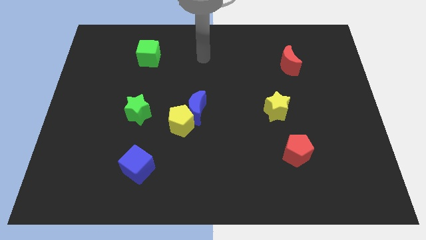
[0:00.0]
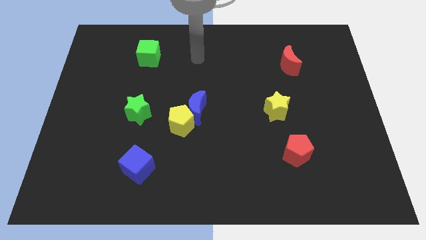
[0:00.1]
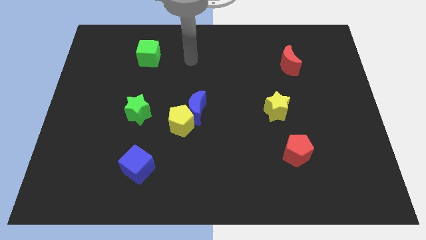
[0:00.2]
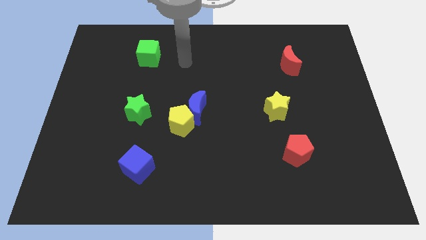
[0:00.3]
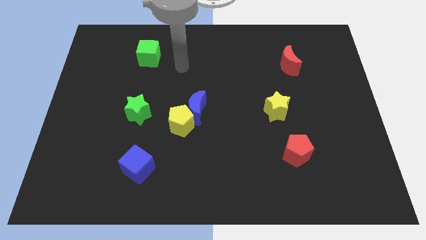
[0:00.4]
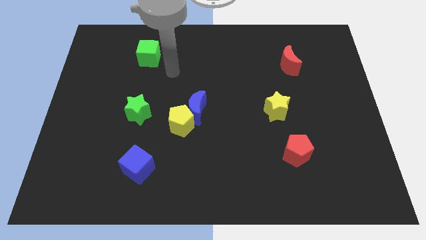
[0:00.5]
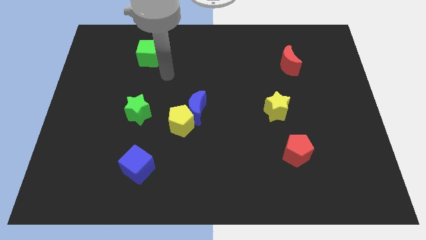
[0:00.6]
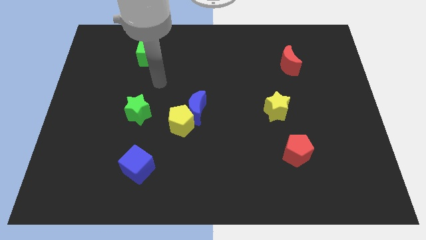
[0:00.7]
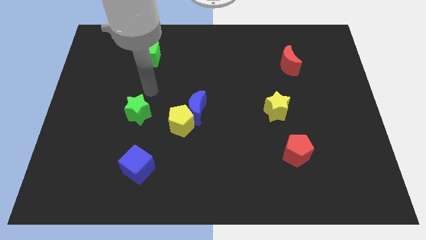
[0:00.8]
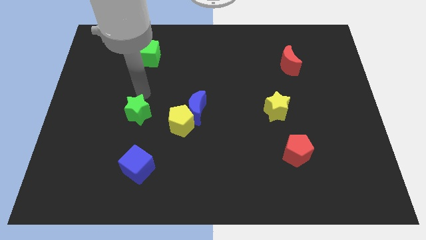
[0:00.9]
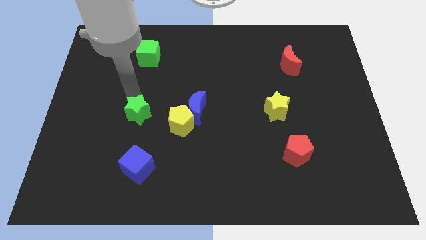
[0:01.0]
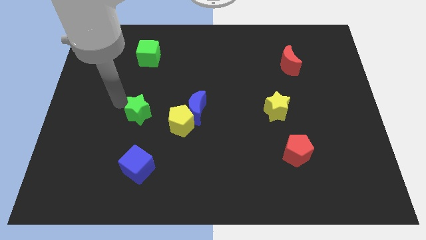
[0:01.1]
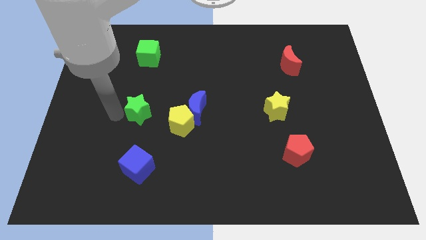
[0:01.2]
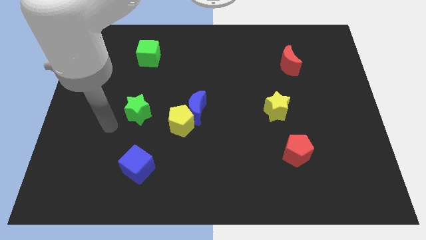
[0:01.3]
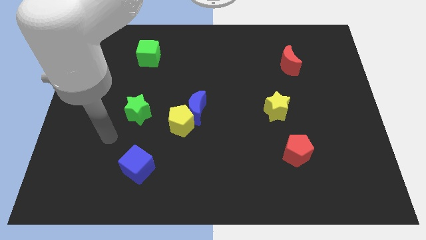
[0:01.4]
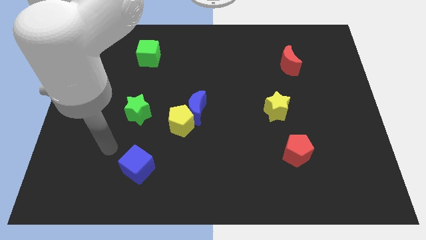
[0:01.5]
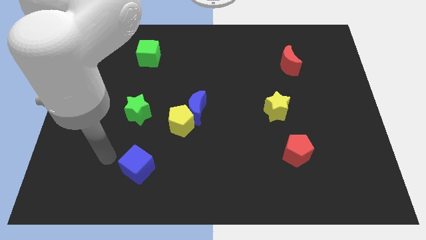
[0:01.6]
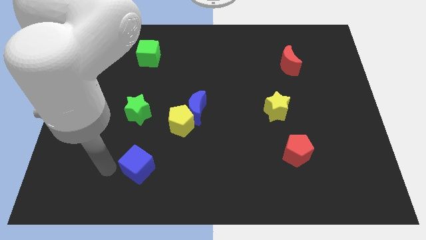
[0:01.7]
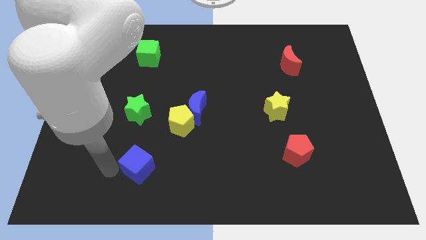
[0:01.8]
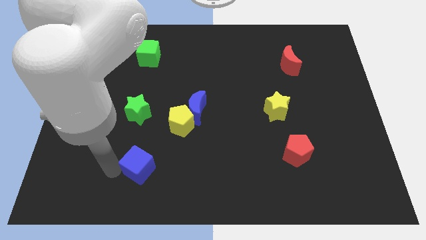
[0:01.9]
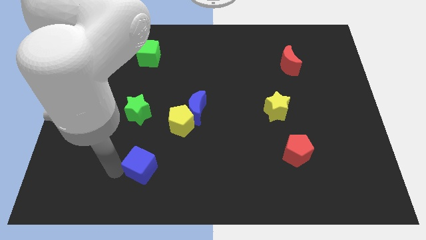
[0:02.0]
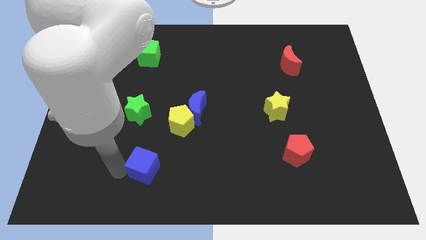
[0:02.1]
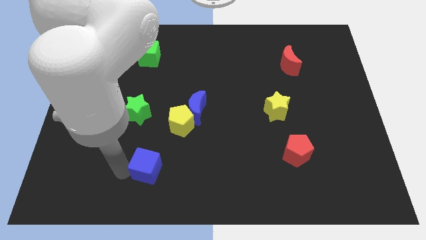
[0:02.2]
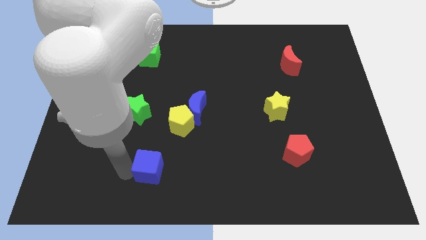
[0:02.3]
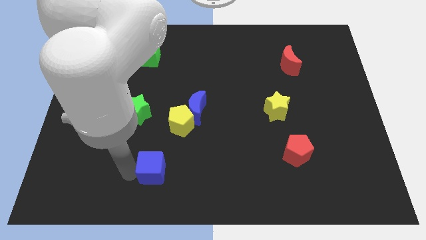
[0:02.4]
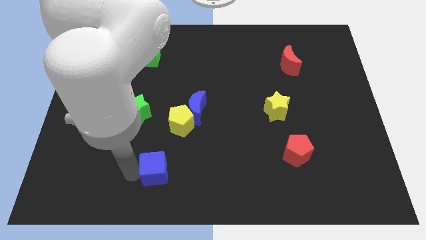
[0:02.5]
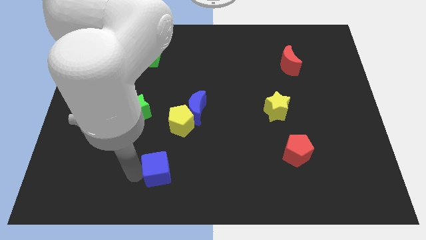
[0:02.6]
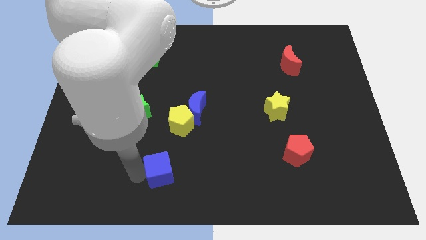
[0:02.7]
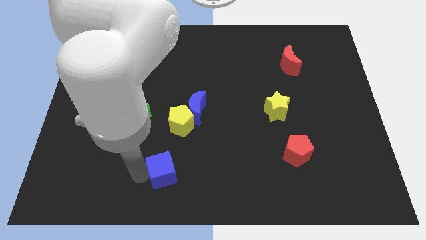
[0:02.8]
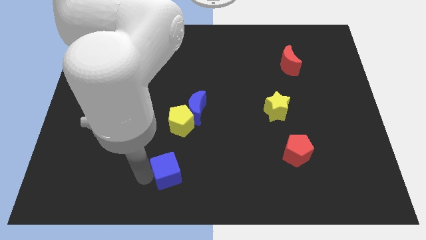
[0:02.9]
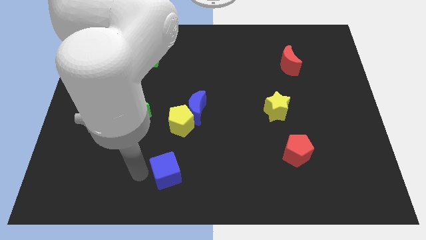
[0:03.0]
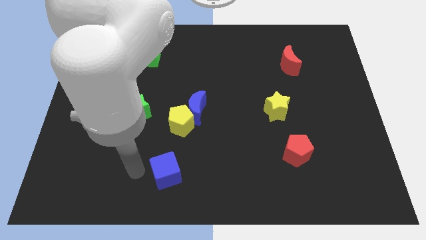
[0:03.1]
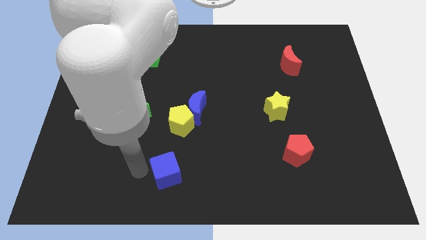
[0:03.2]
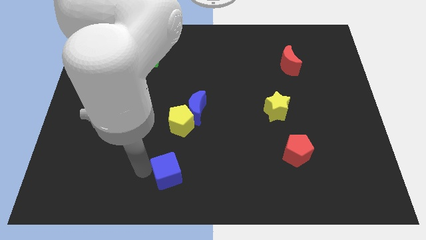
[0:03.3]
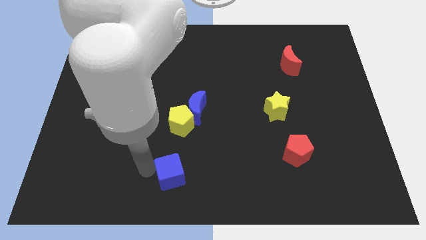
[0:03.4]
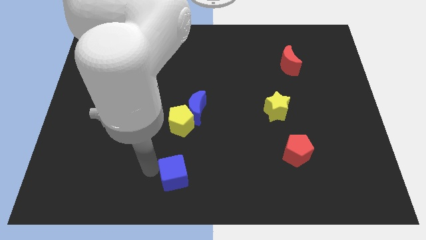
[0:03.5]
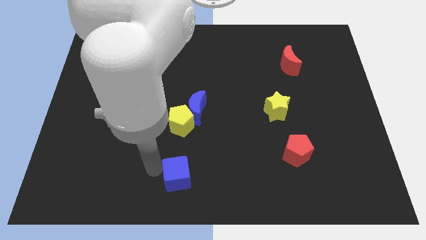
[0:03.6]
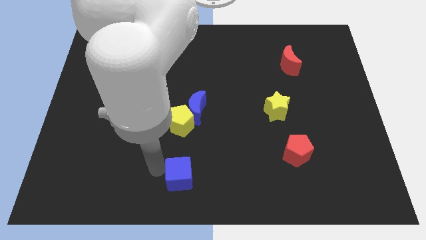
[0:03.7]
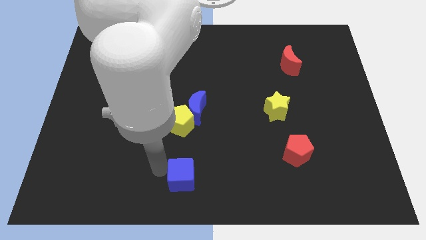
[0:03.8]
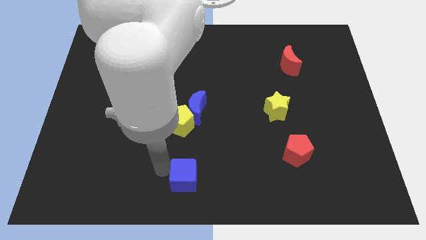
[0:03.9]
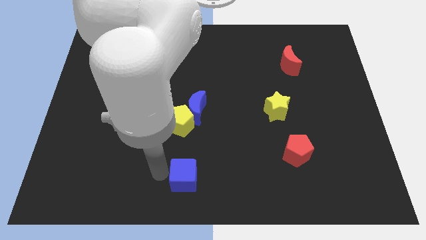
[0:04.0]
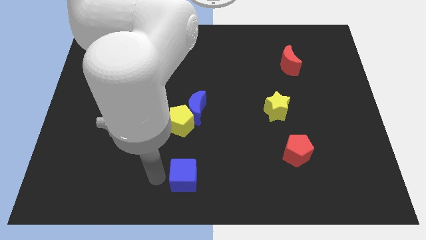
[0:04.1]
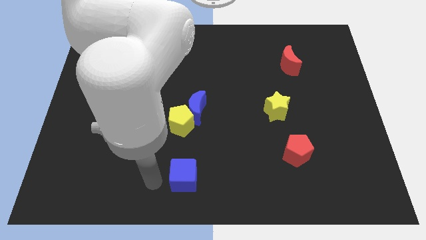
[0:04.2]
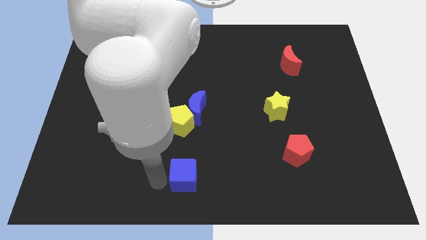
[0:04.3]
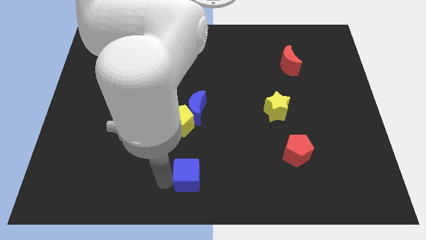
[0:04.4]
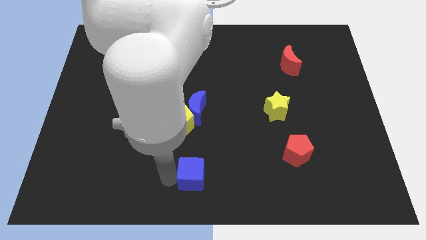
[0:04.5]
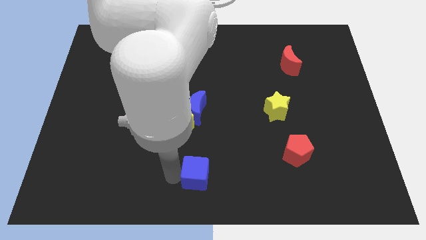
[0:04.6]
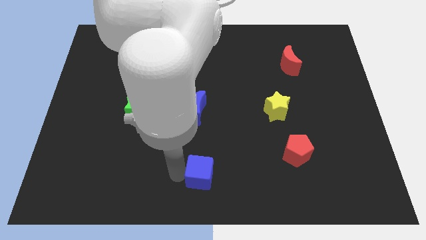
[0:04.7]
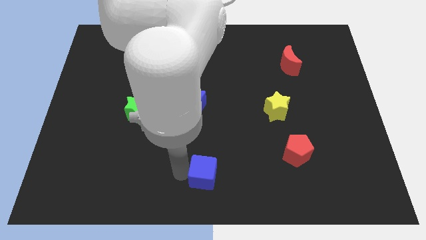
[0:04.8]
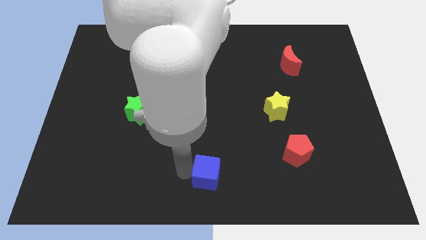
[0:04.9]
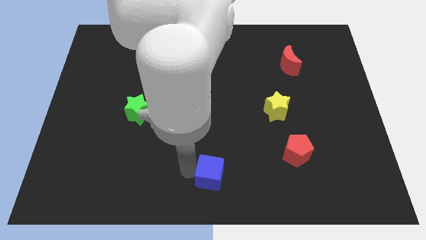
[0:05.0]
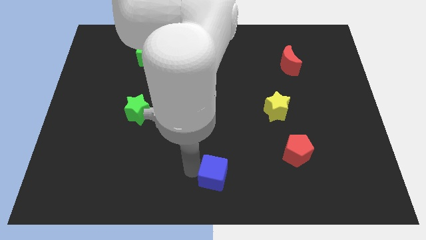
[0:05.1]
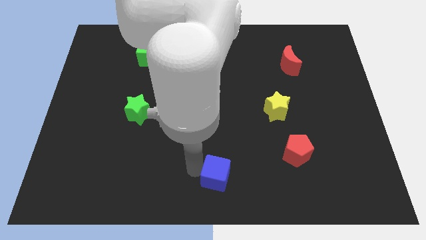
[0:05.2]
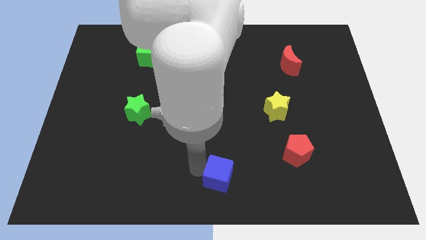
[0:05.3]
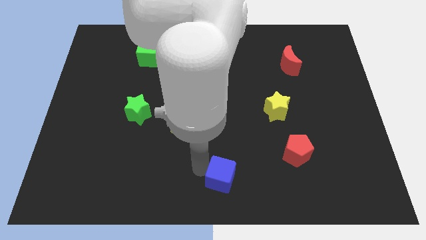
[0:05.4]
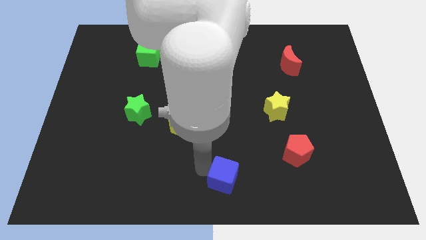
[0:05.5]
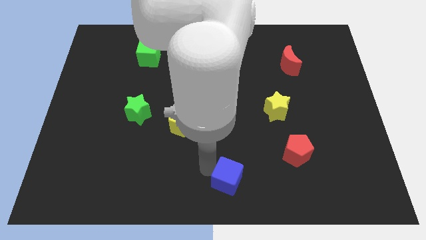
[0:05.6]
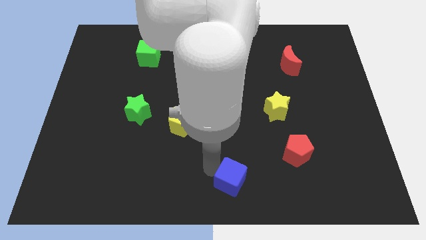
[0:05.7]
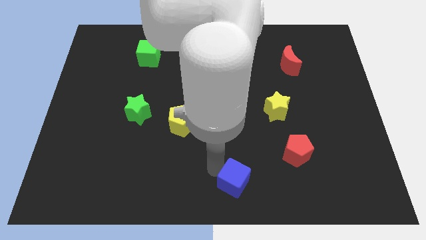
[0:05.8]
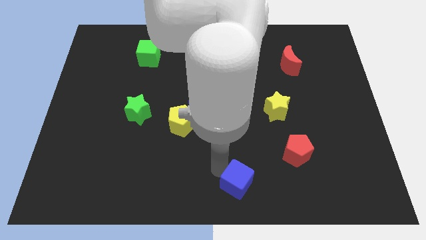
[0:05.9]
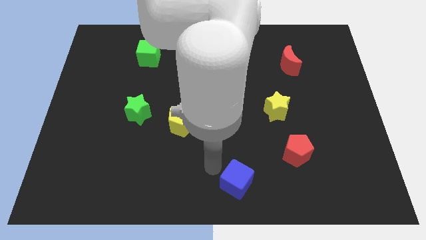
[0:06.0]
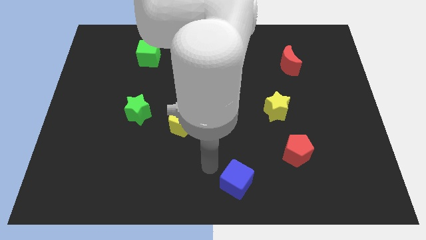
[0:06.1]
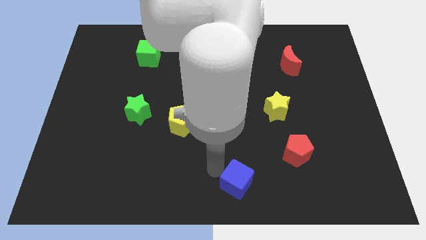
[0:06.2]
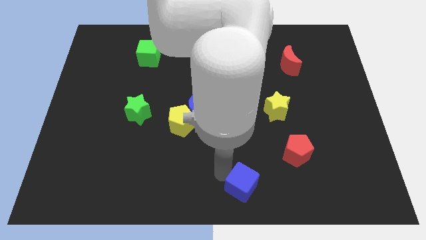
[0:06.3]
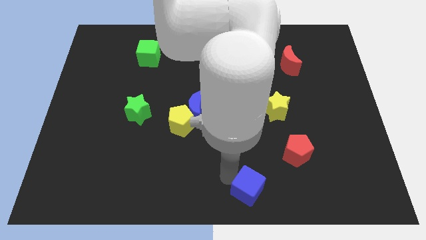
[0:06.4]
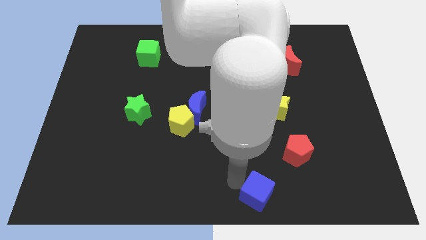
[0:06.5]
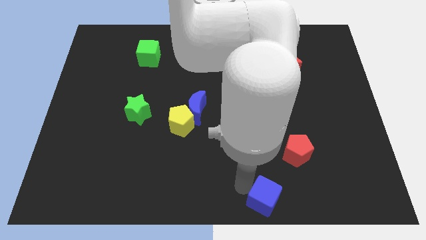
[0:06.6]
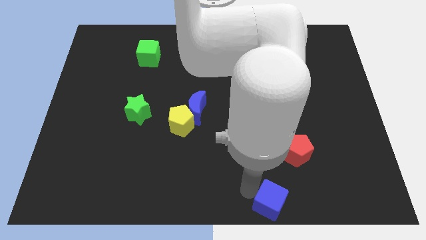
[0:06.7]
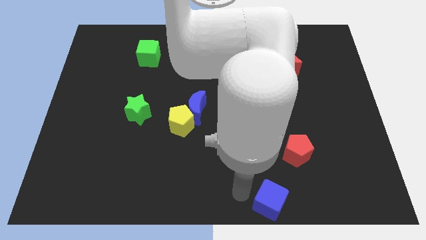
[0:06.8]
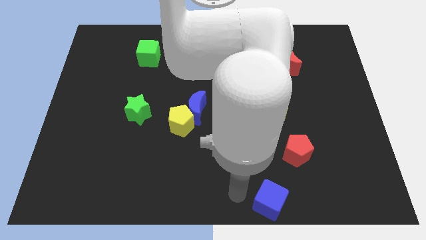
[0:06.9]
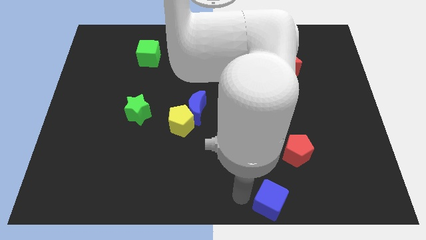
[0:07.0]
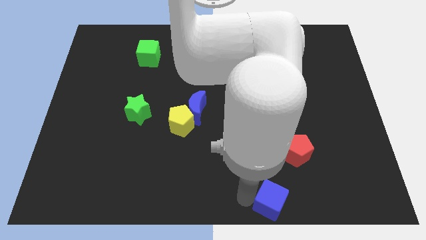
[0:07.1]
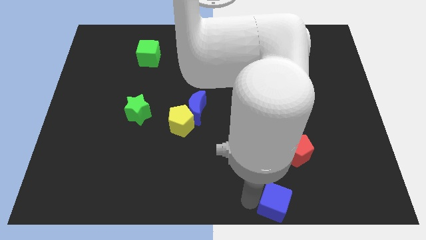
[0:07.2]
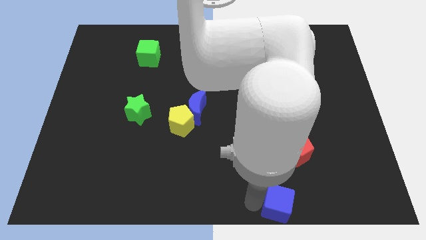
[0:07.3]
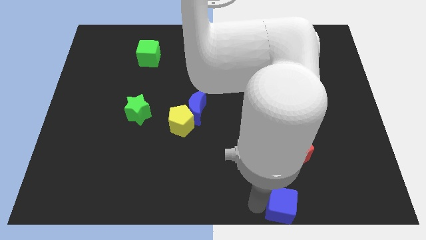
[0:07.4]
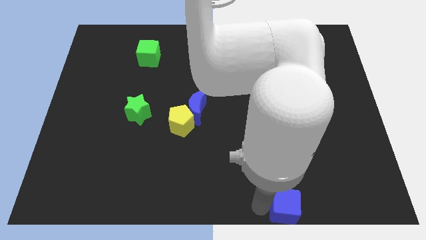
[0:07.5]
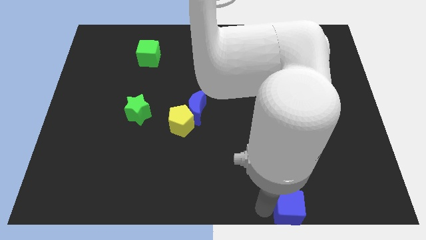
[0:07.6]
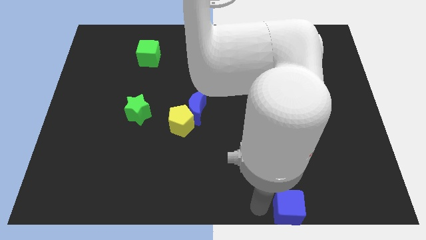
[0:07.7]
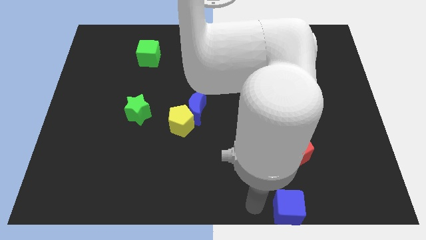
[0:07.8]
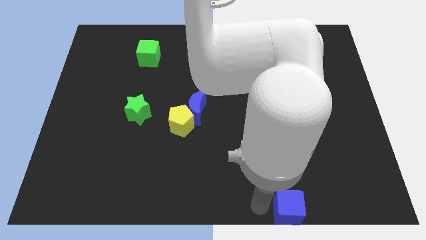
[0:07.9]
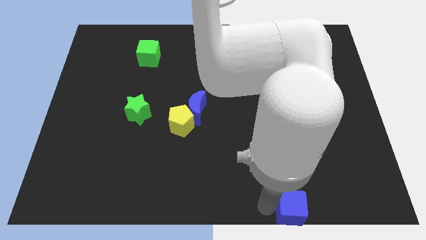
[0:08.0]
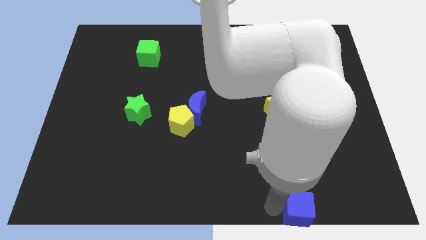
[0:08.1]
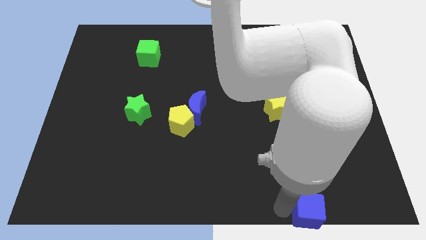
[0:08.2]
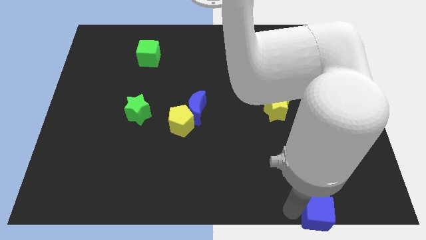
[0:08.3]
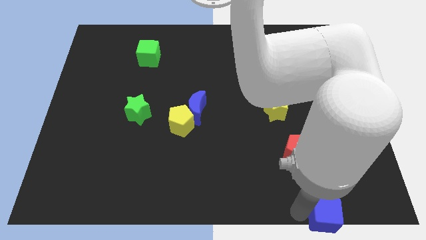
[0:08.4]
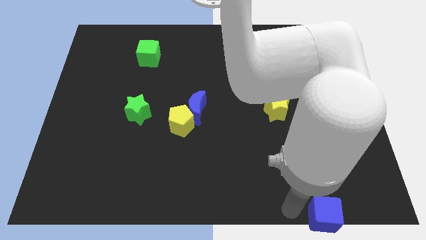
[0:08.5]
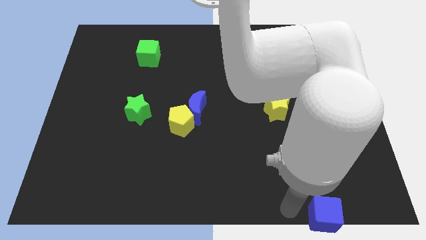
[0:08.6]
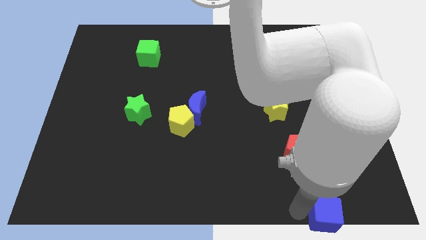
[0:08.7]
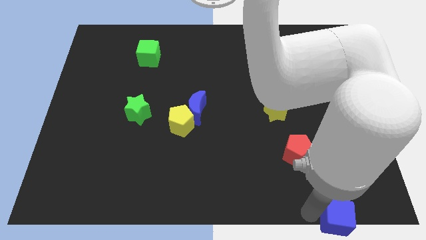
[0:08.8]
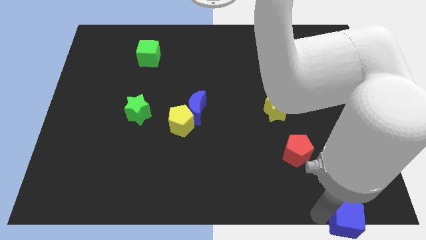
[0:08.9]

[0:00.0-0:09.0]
put the blue cube to the bottom right of the board
